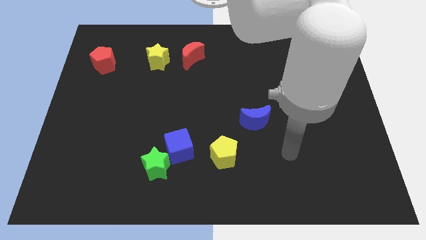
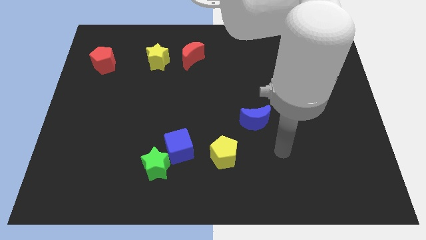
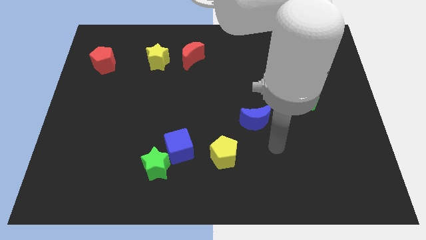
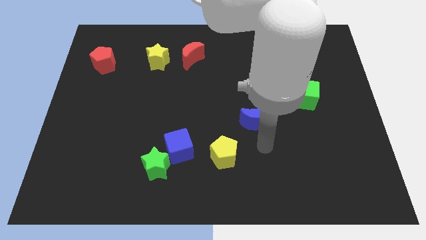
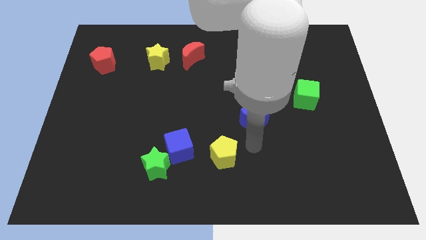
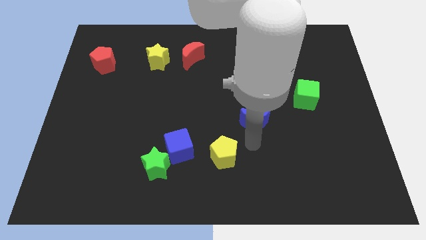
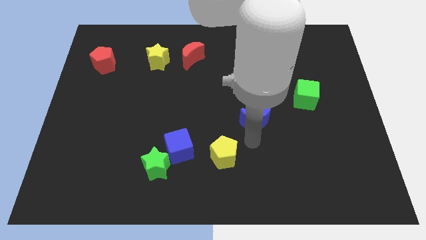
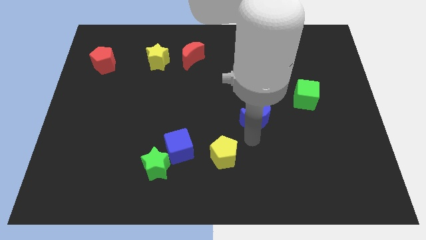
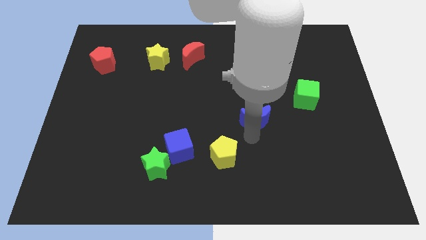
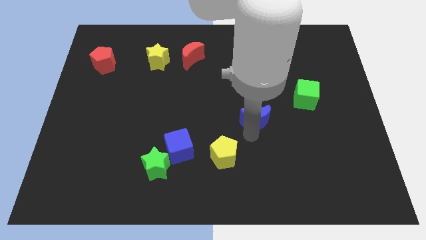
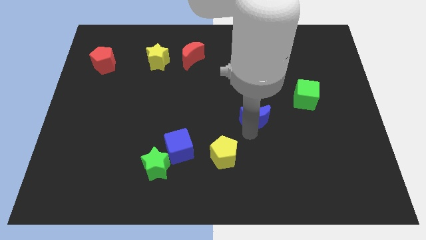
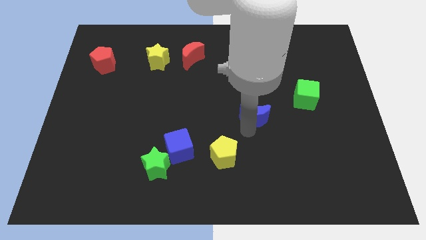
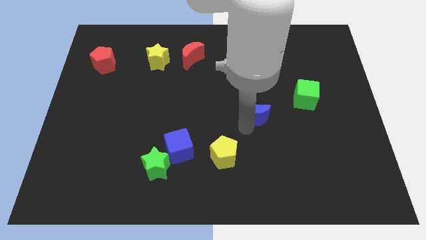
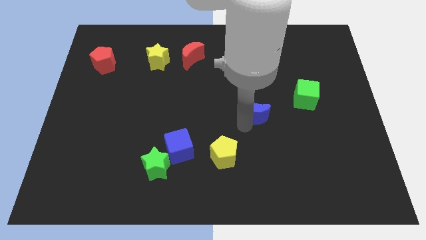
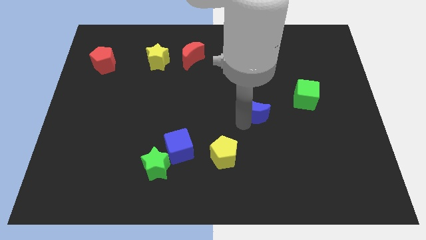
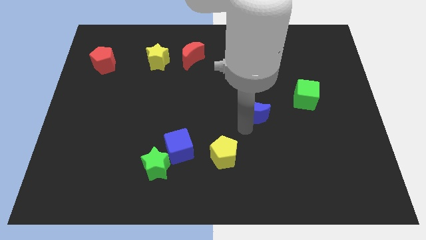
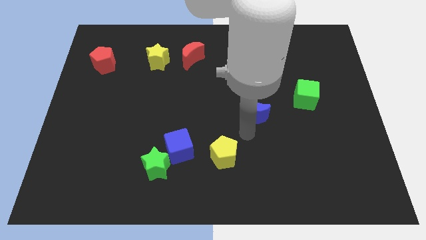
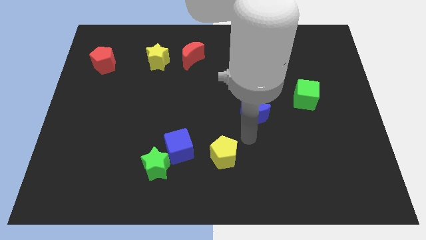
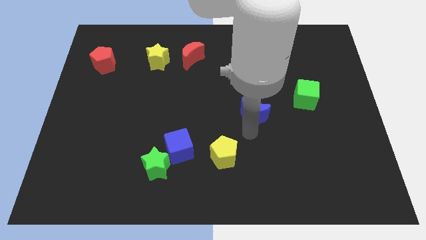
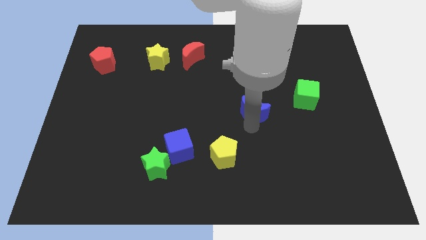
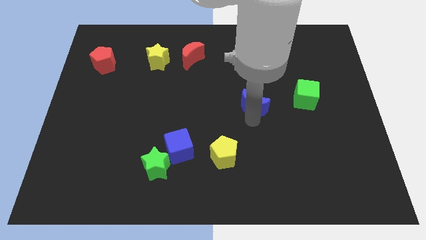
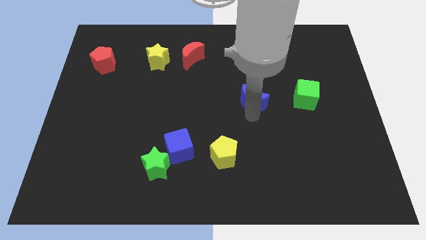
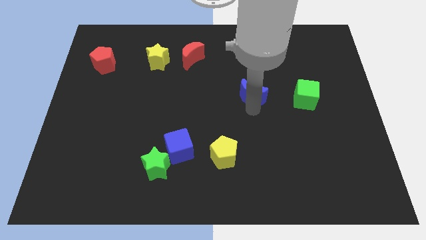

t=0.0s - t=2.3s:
slightly move the blue moon up

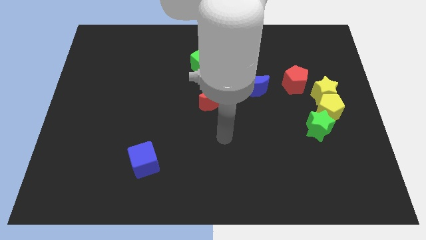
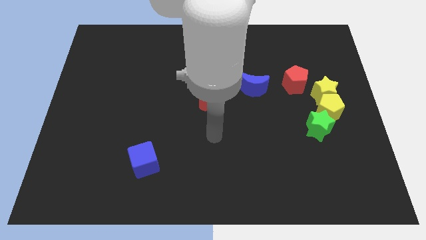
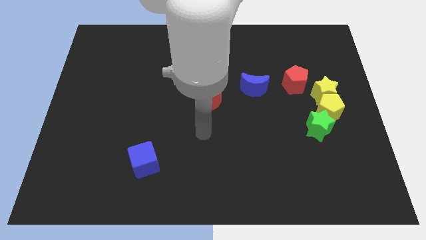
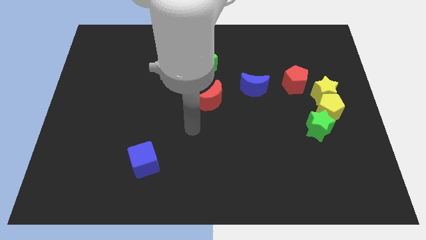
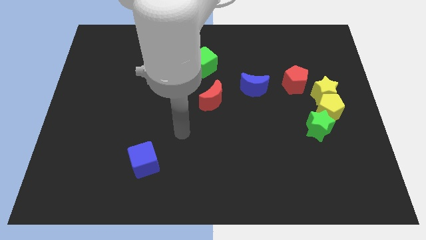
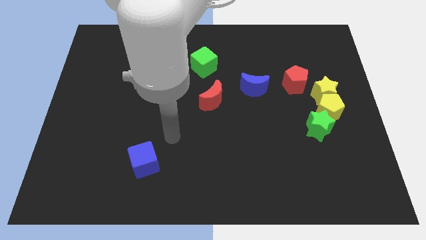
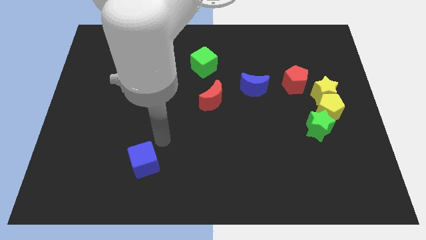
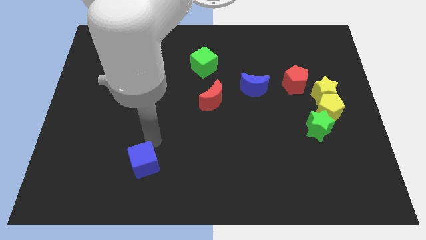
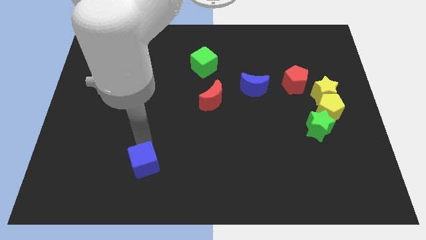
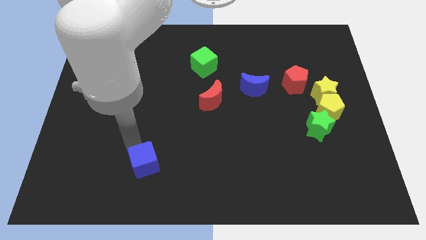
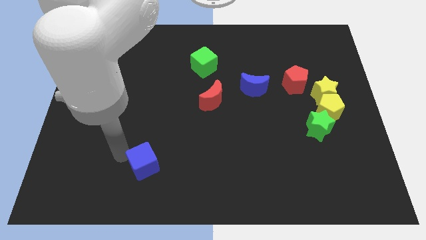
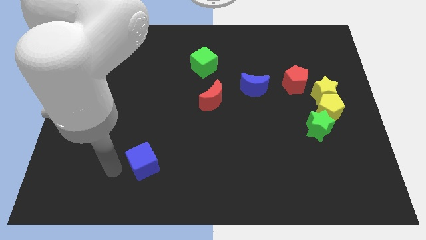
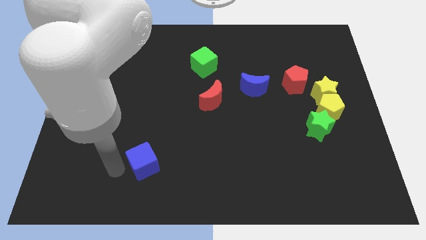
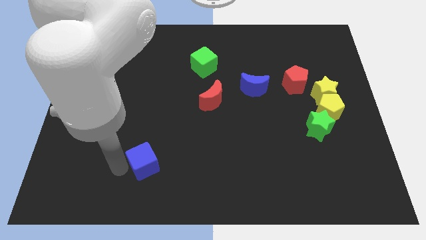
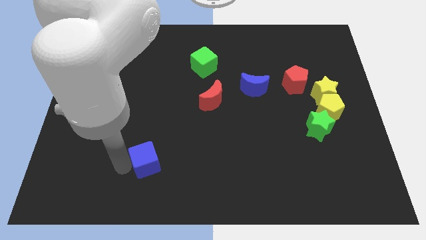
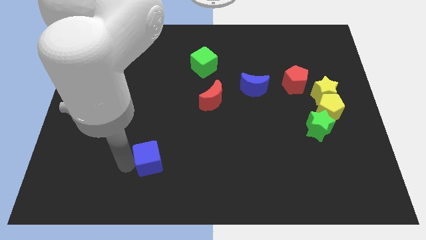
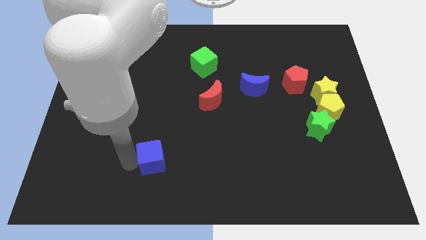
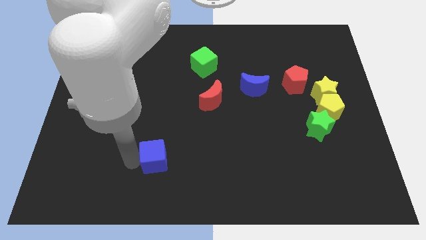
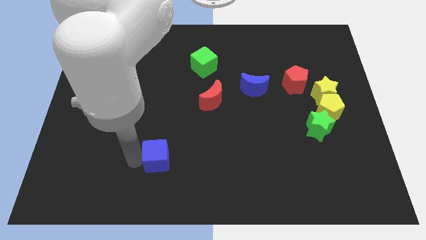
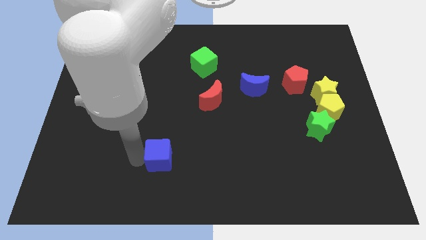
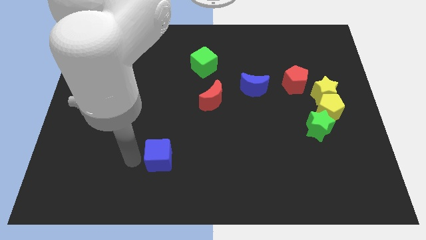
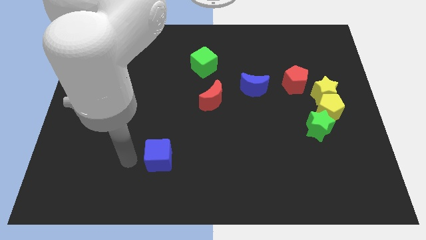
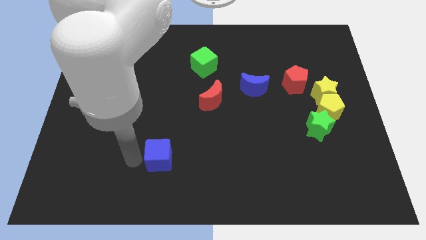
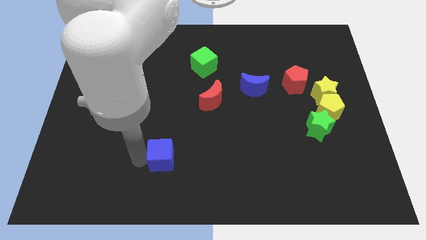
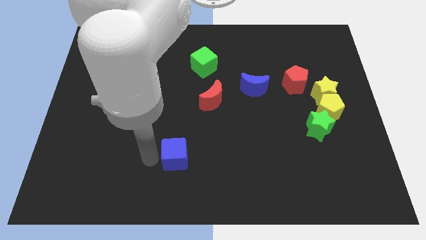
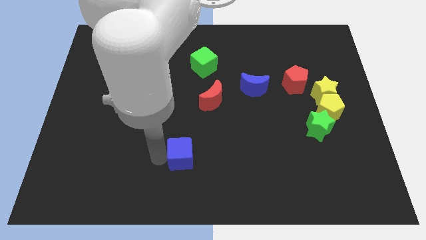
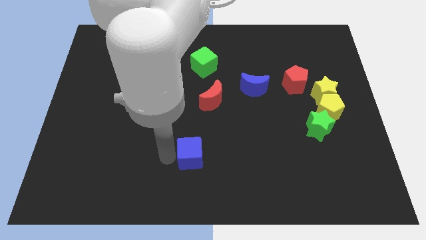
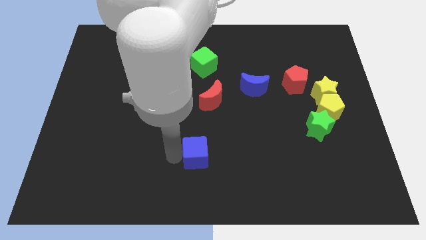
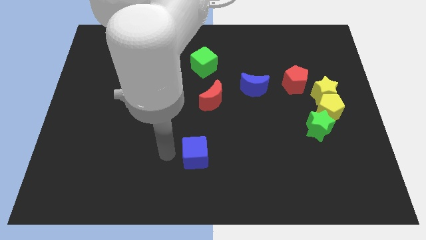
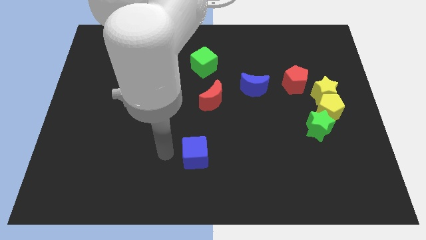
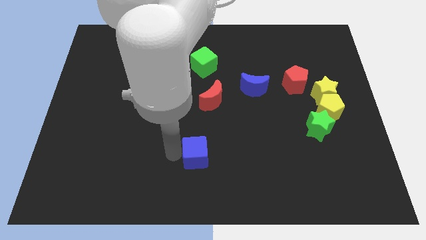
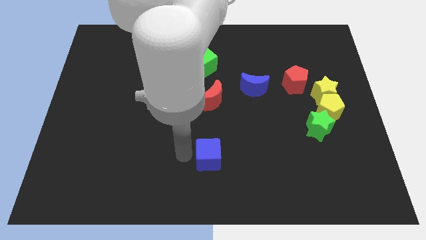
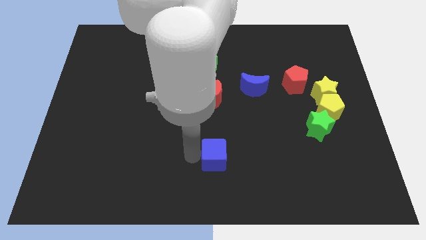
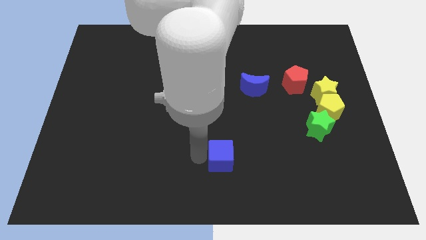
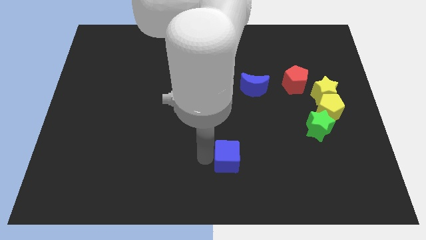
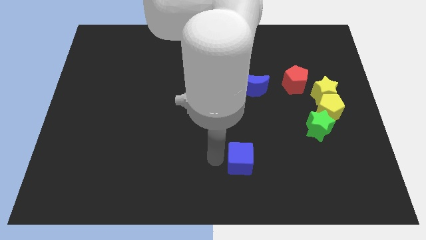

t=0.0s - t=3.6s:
slide the blue cube right

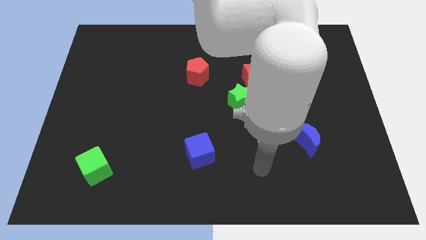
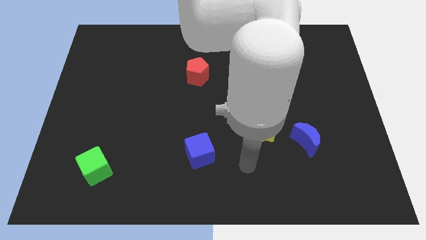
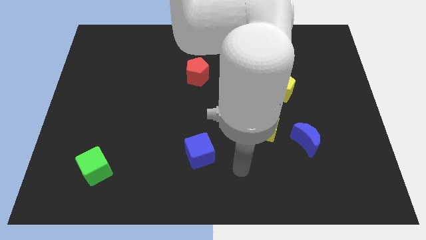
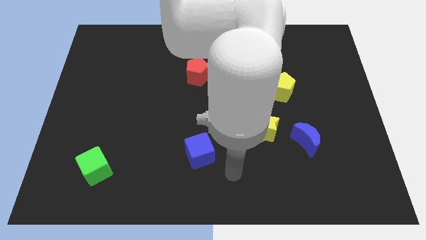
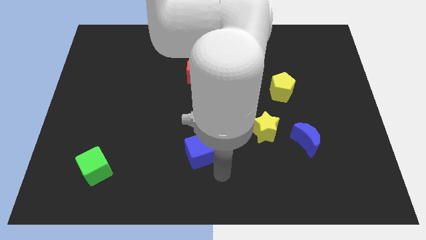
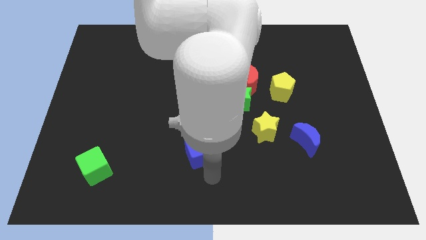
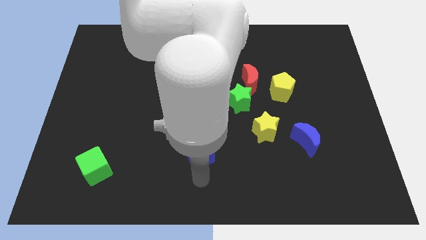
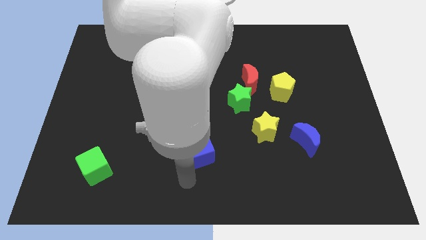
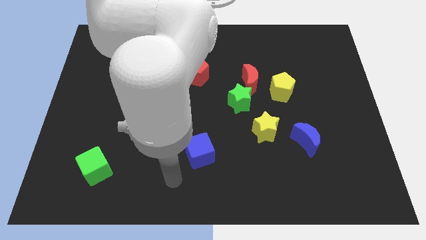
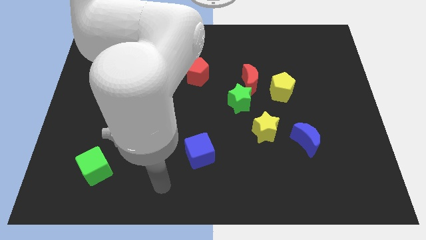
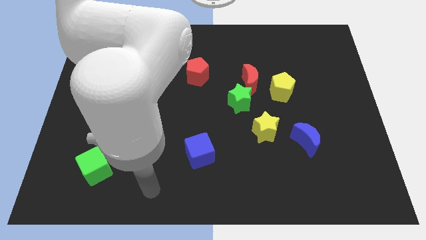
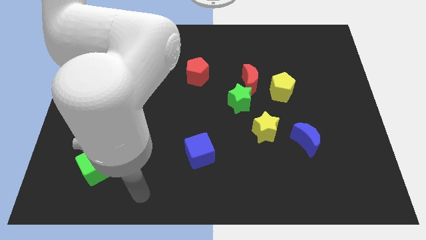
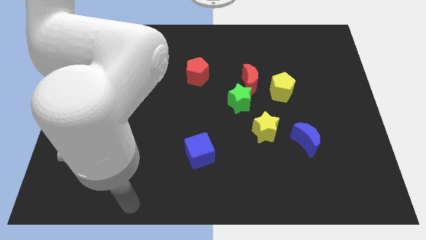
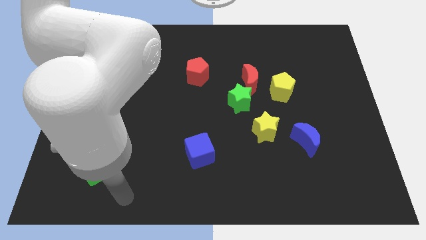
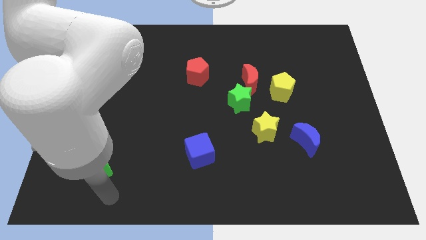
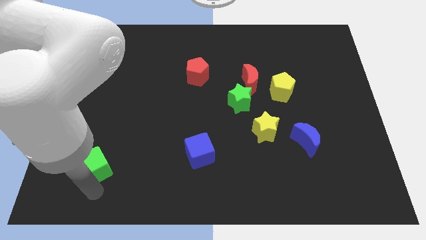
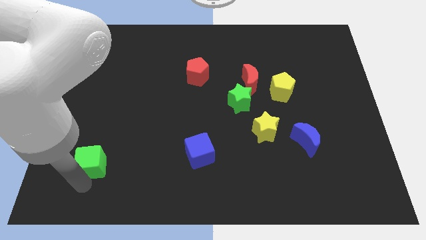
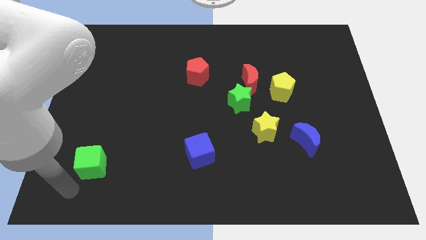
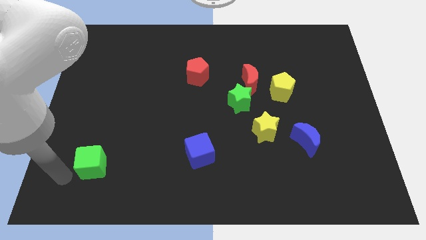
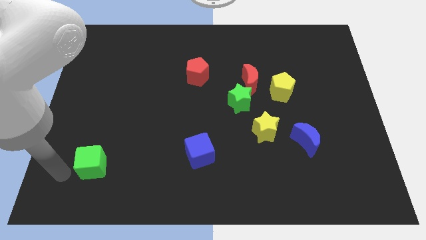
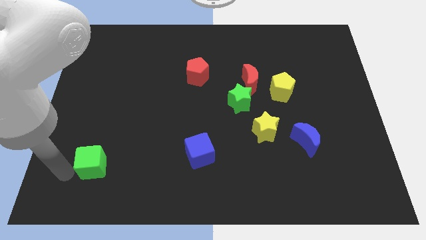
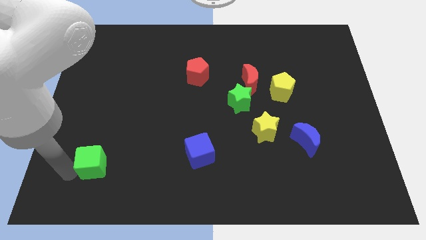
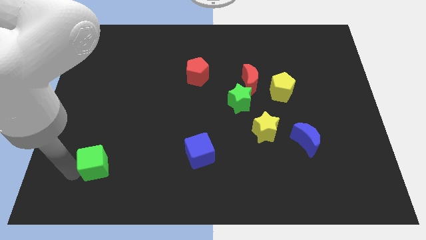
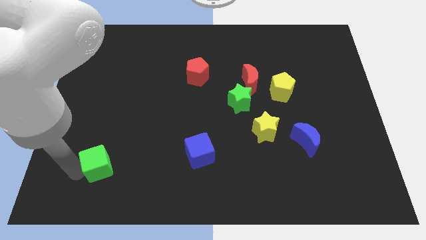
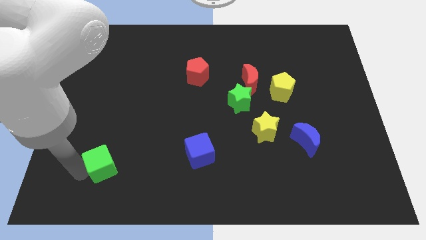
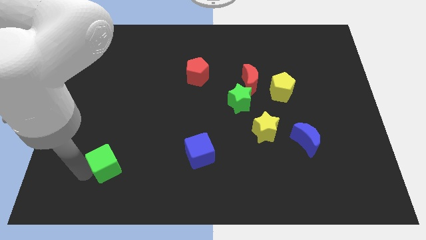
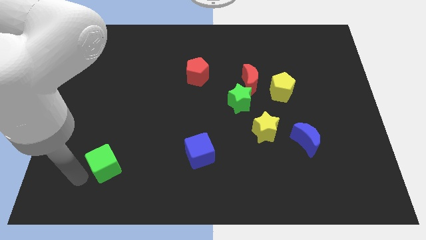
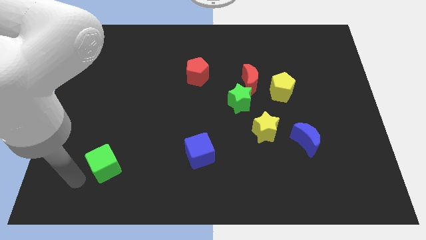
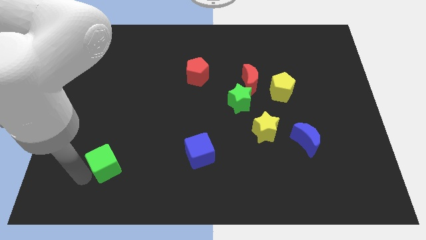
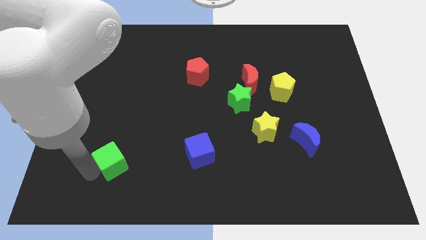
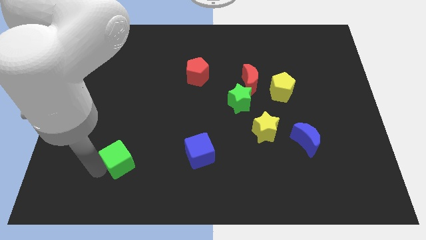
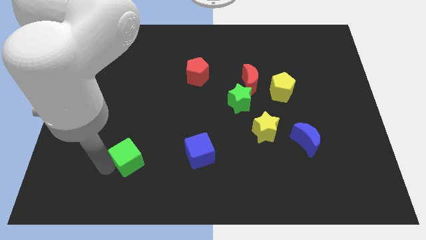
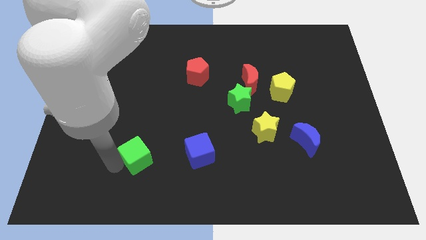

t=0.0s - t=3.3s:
slightly push the green cube diagonally upwards and right
